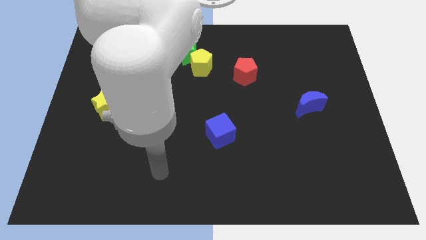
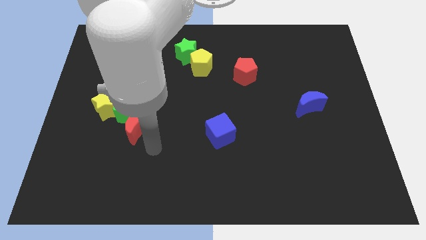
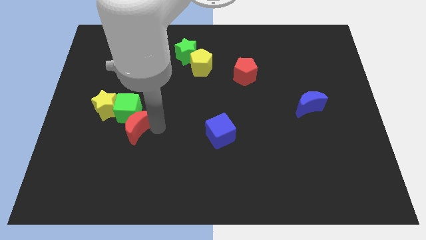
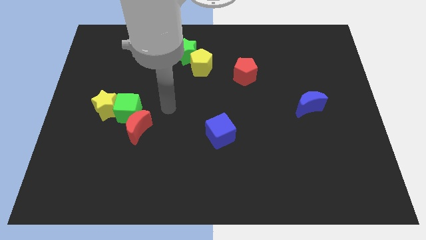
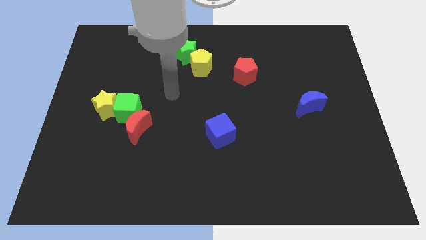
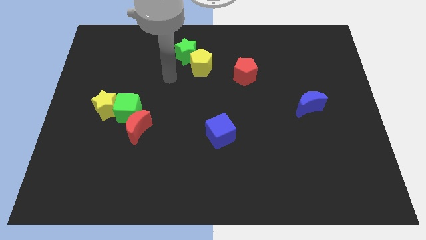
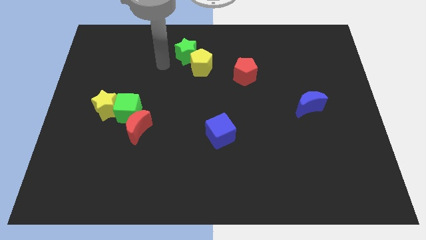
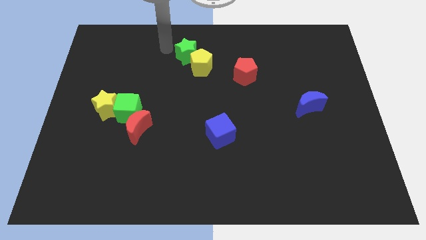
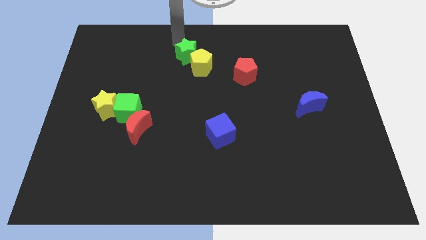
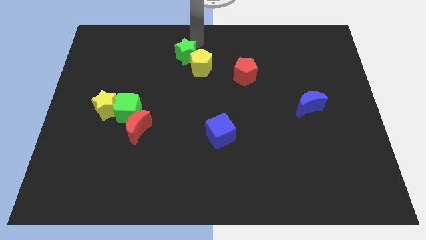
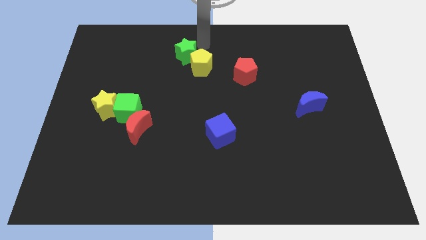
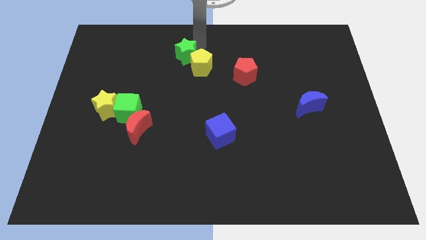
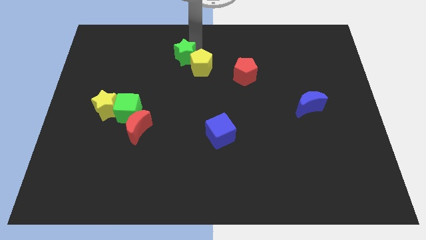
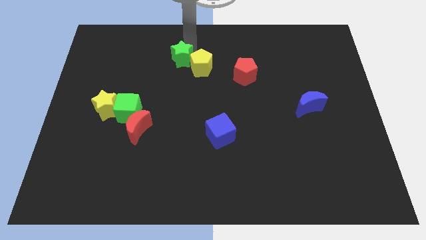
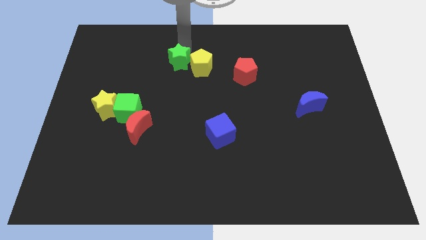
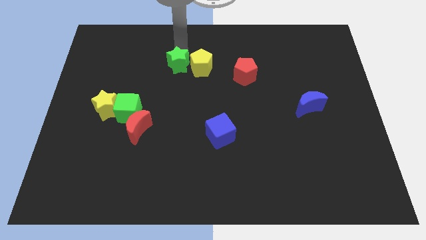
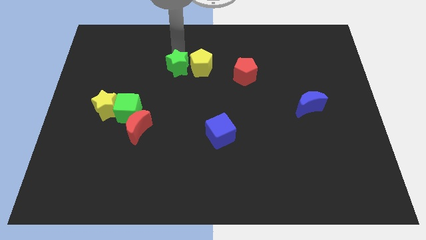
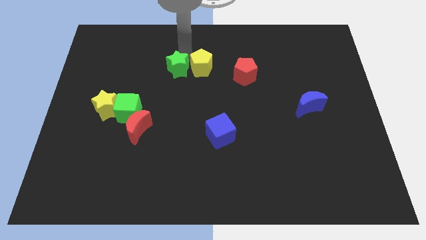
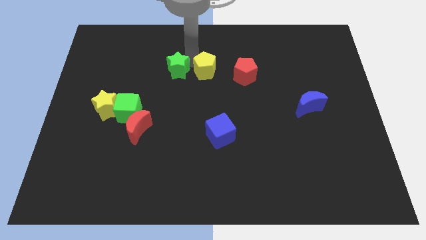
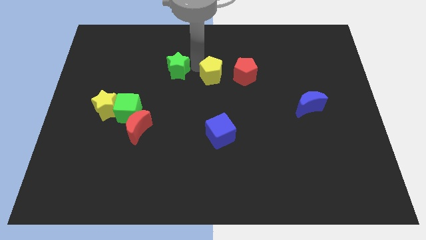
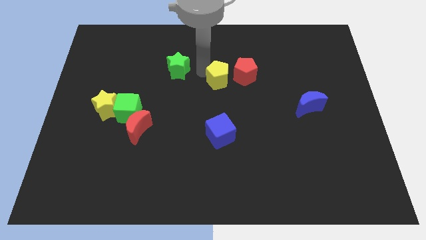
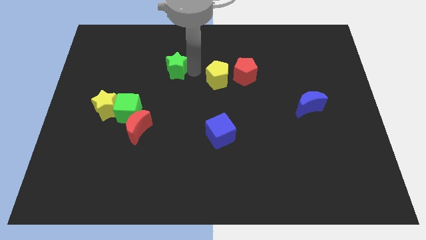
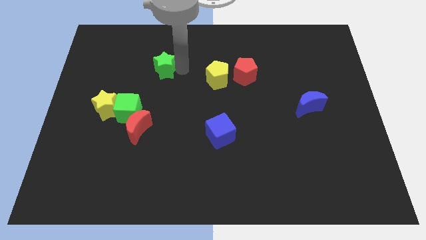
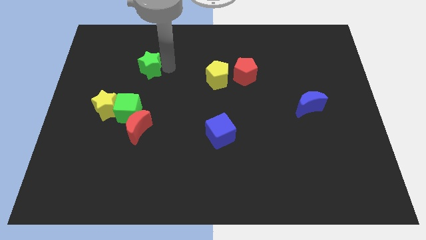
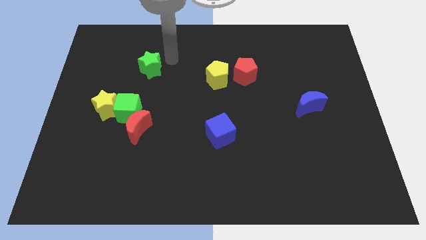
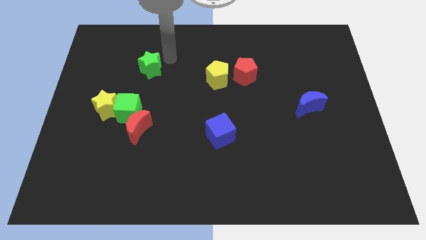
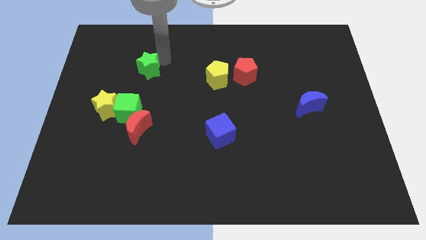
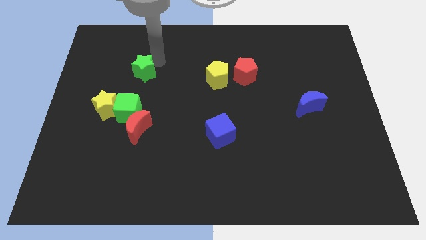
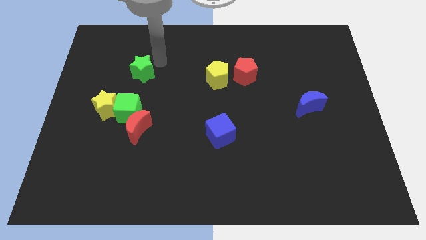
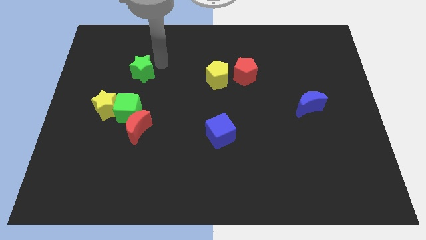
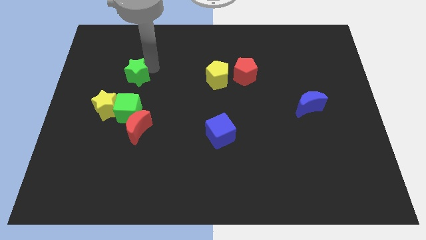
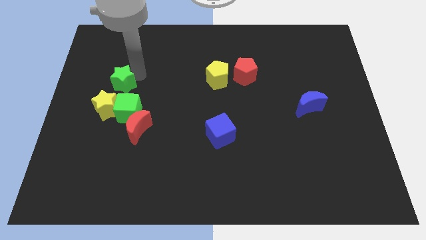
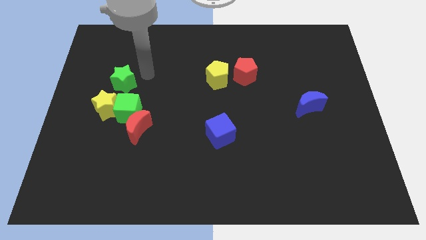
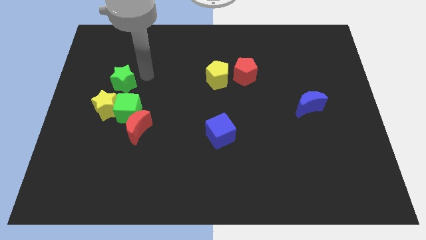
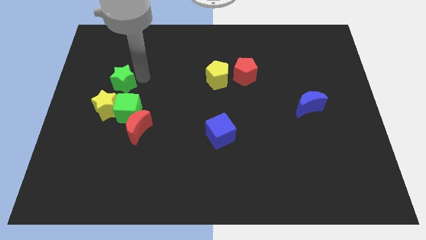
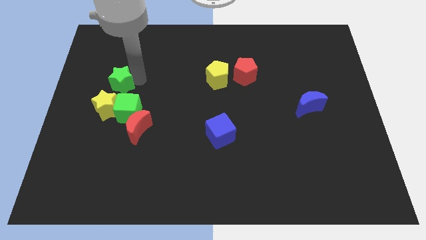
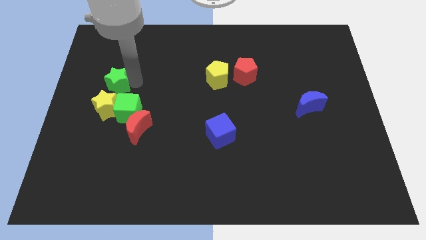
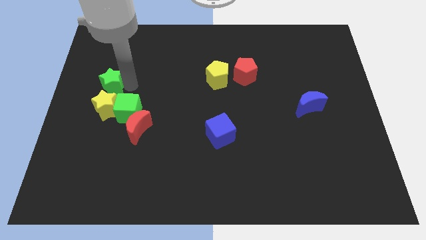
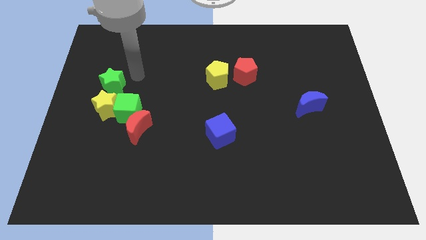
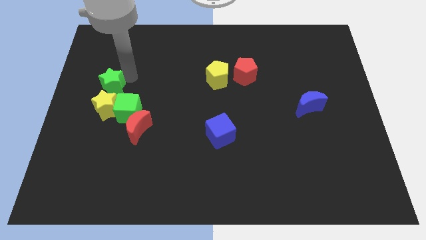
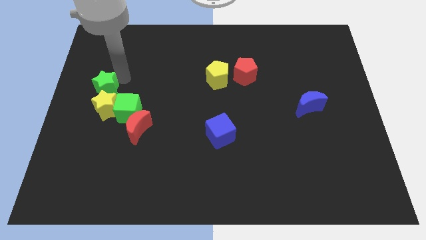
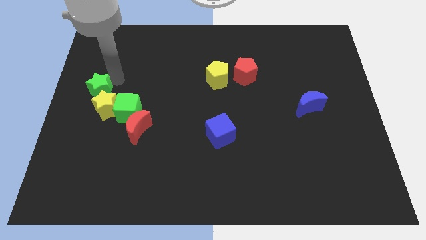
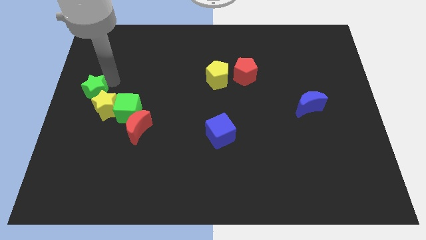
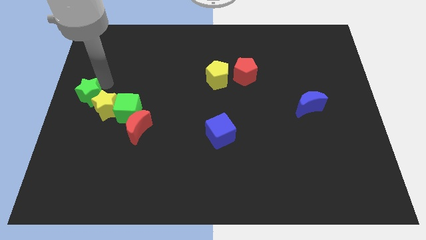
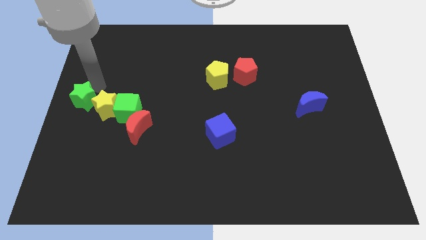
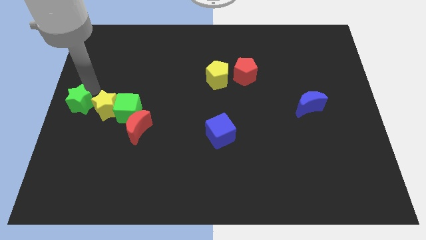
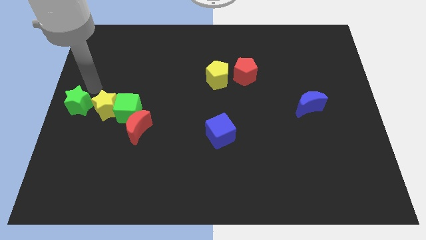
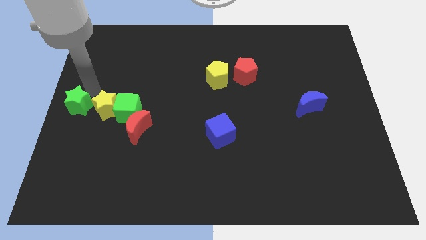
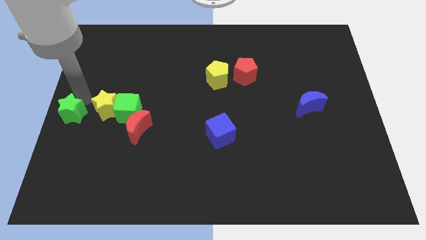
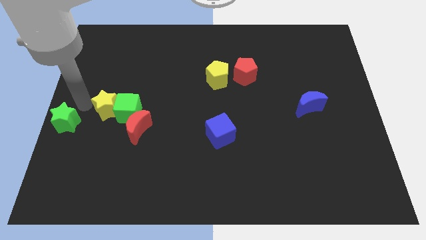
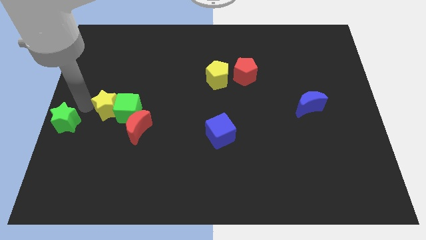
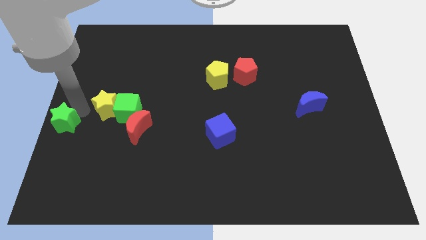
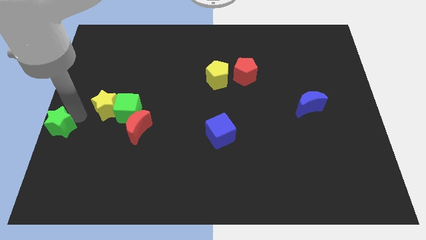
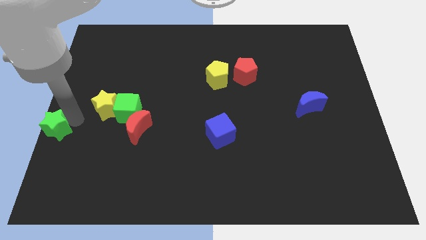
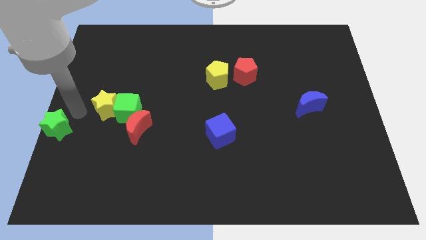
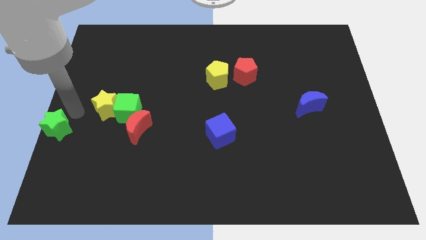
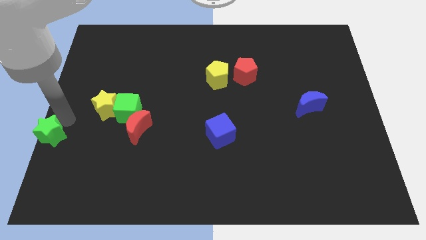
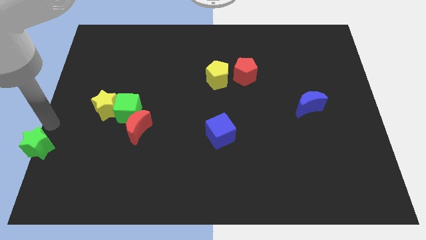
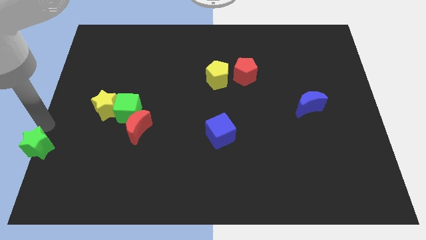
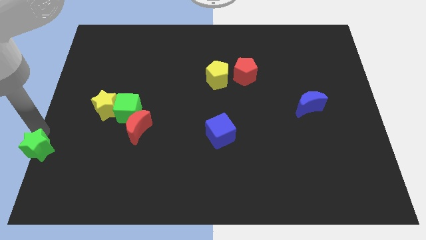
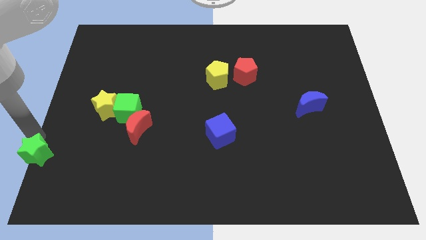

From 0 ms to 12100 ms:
put the green star to the bottom left
